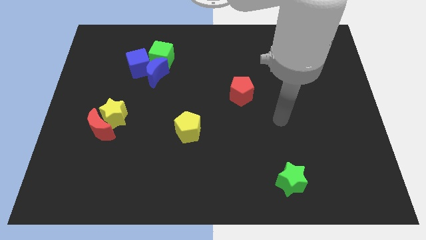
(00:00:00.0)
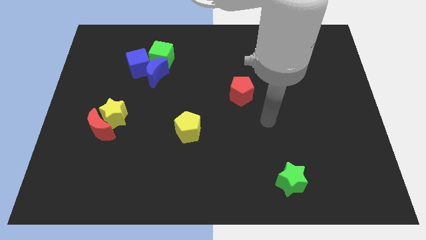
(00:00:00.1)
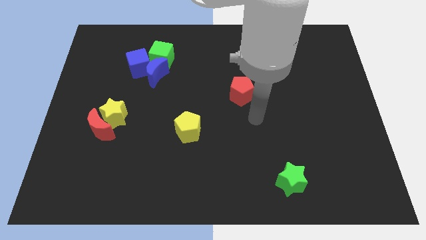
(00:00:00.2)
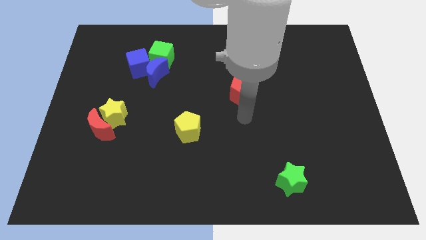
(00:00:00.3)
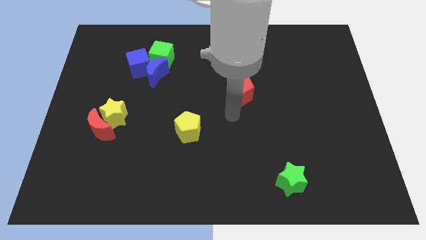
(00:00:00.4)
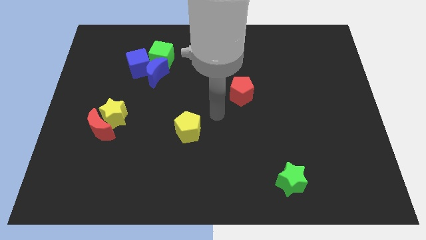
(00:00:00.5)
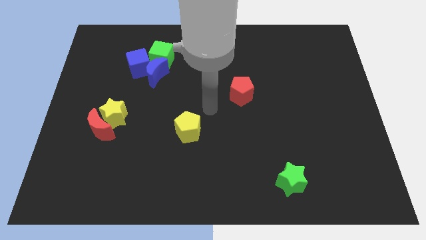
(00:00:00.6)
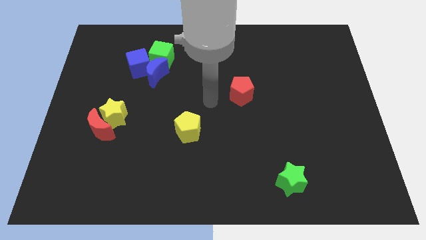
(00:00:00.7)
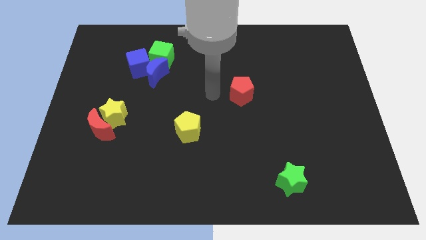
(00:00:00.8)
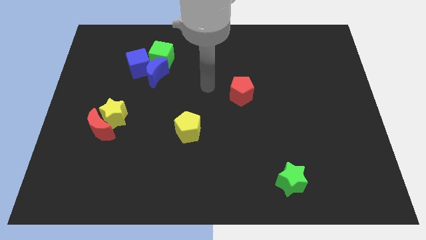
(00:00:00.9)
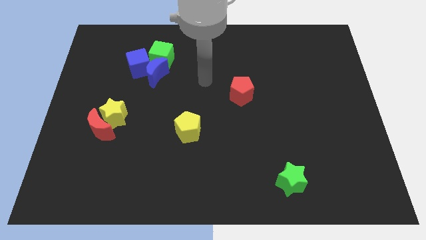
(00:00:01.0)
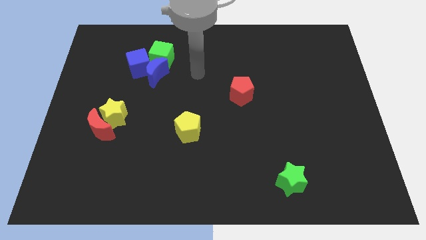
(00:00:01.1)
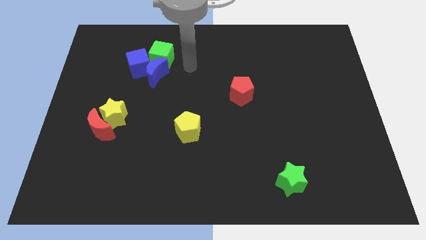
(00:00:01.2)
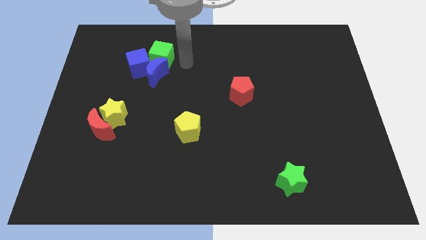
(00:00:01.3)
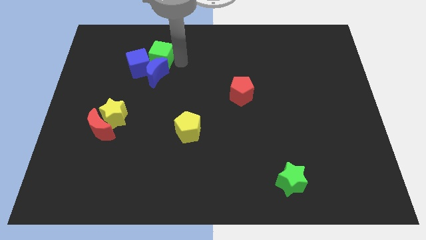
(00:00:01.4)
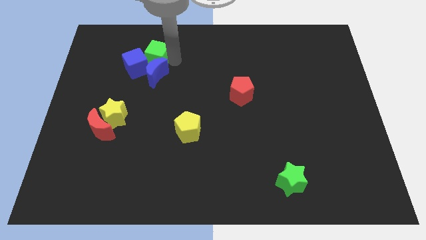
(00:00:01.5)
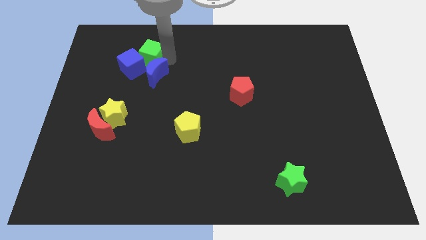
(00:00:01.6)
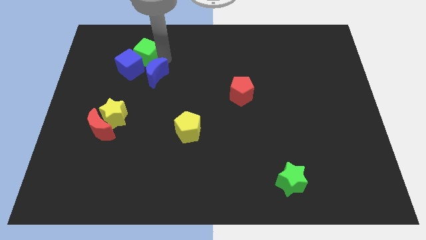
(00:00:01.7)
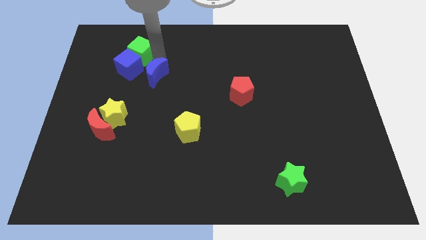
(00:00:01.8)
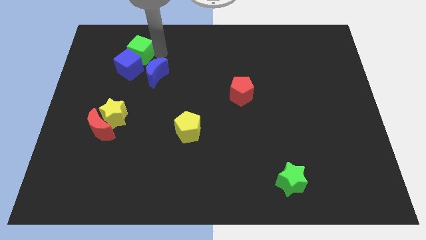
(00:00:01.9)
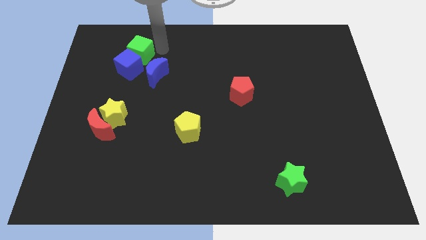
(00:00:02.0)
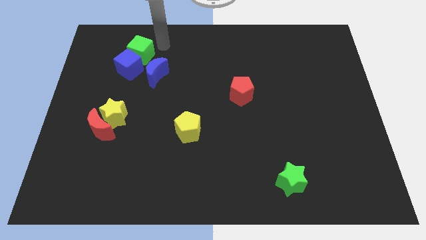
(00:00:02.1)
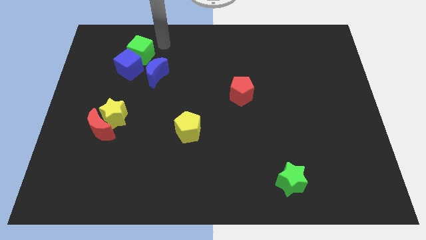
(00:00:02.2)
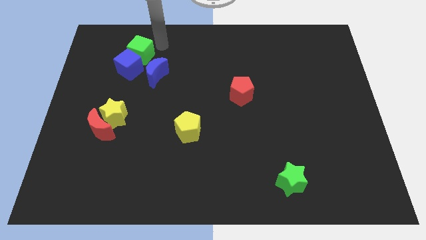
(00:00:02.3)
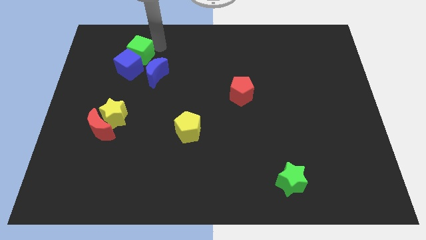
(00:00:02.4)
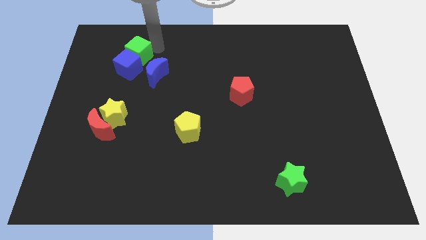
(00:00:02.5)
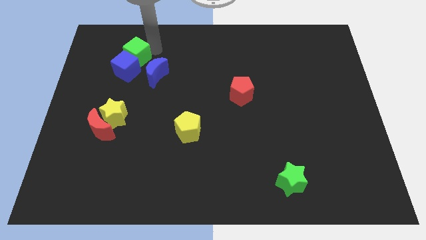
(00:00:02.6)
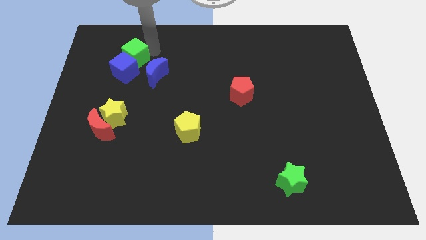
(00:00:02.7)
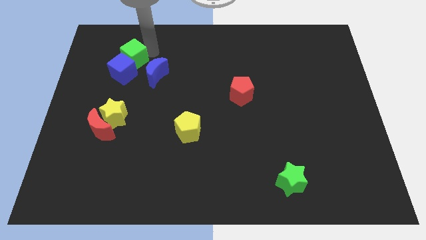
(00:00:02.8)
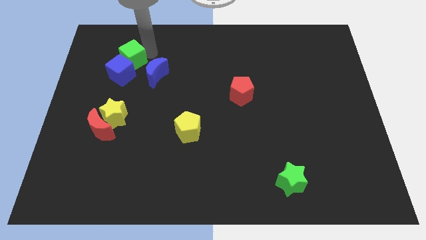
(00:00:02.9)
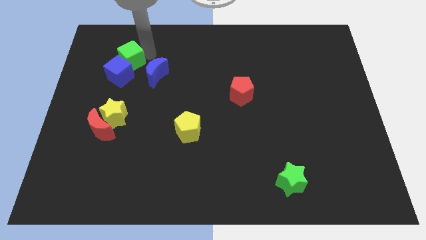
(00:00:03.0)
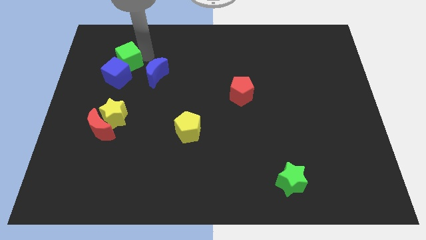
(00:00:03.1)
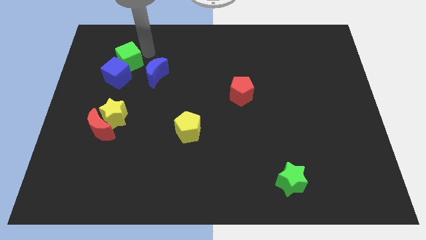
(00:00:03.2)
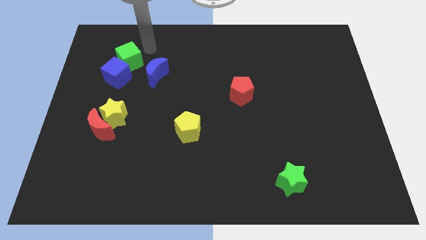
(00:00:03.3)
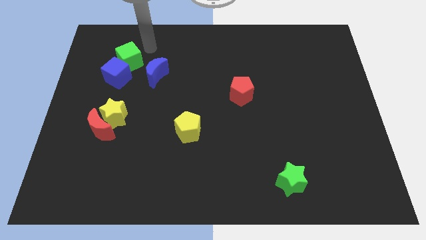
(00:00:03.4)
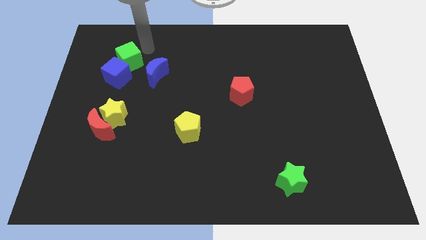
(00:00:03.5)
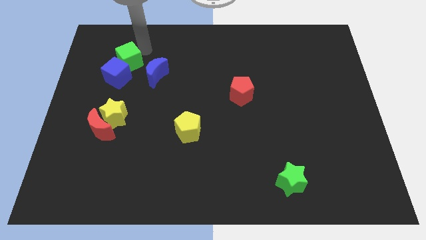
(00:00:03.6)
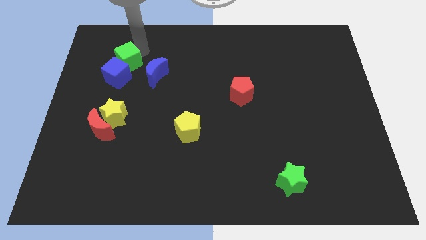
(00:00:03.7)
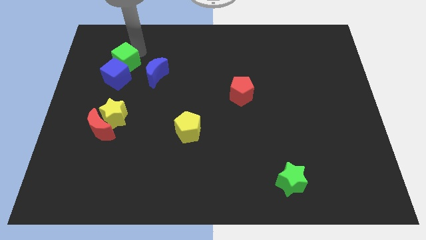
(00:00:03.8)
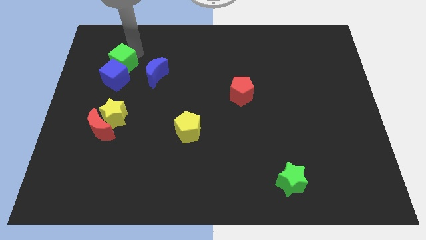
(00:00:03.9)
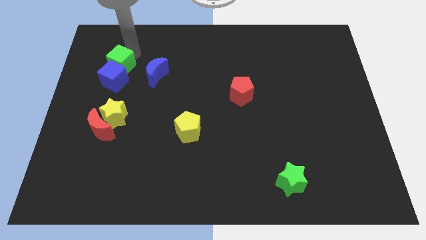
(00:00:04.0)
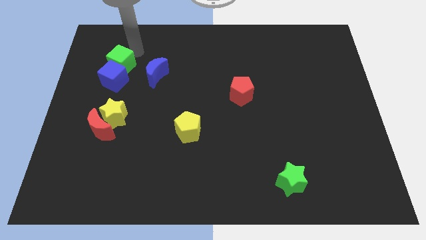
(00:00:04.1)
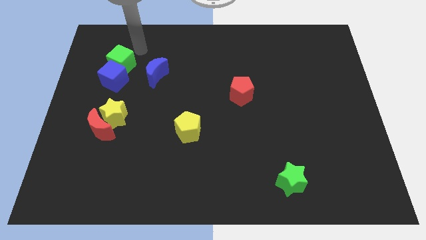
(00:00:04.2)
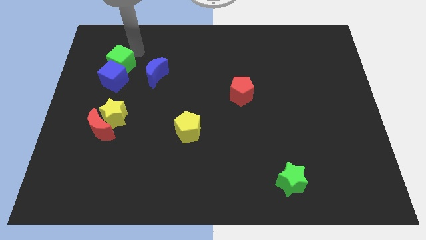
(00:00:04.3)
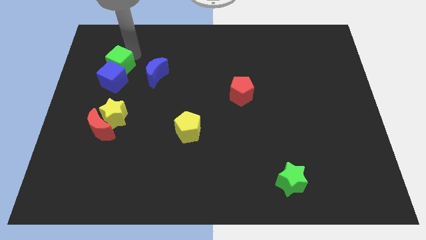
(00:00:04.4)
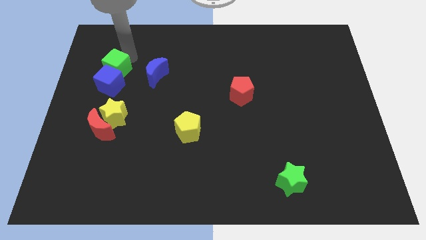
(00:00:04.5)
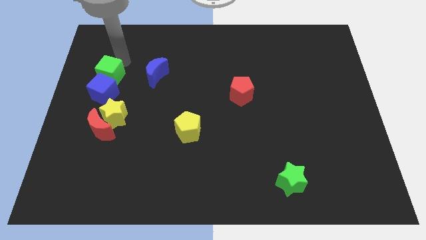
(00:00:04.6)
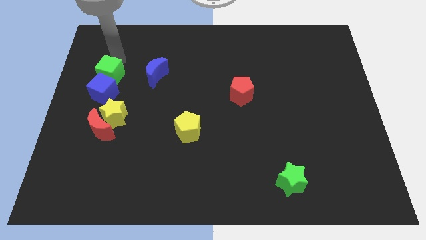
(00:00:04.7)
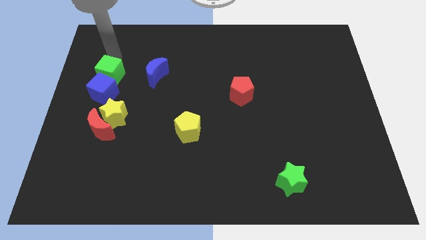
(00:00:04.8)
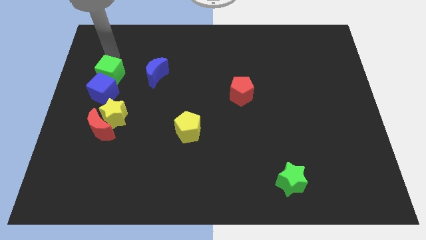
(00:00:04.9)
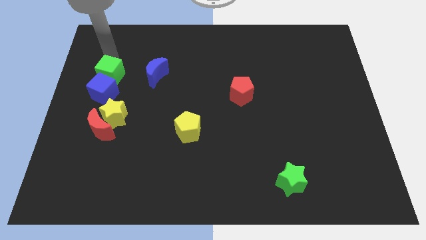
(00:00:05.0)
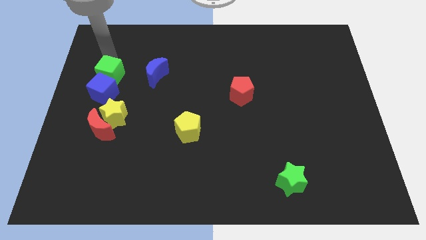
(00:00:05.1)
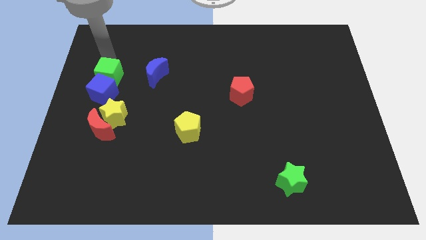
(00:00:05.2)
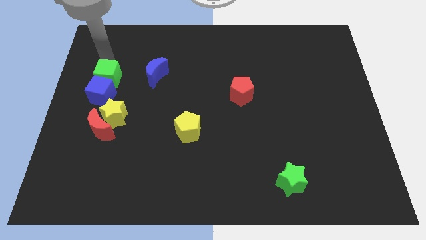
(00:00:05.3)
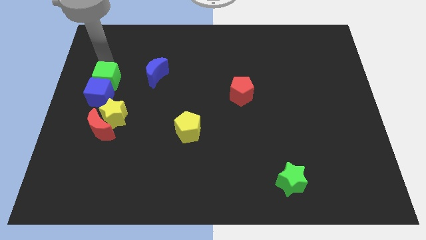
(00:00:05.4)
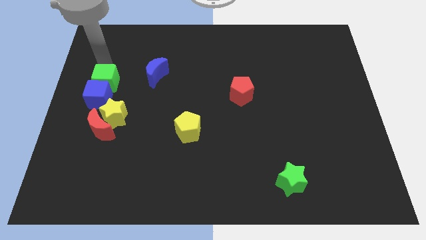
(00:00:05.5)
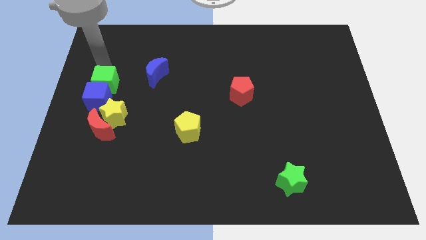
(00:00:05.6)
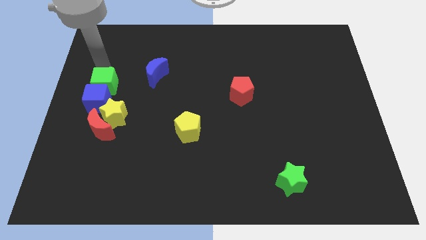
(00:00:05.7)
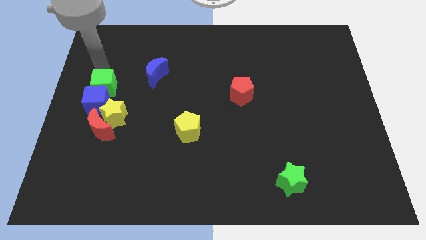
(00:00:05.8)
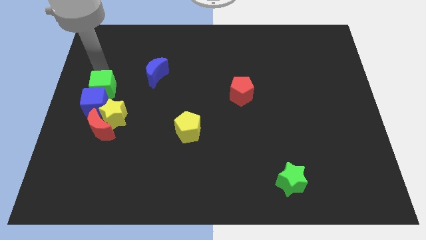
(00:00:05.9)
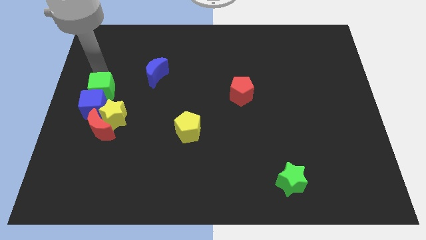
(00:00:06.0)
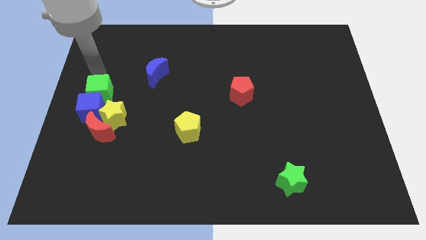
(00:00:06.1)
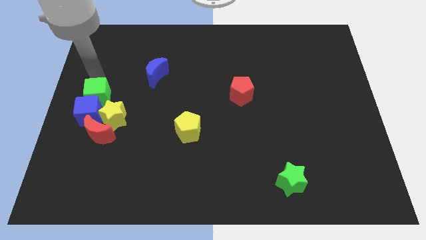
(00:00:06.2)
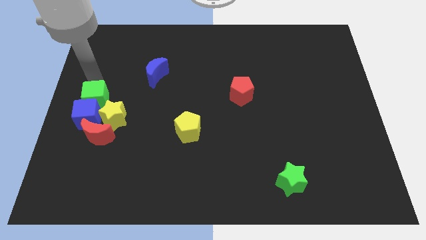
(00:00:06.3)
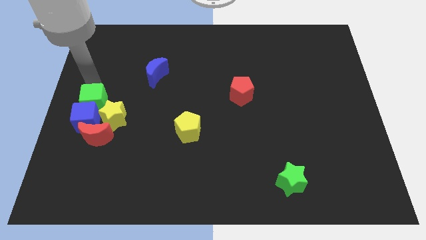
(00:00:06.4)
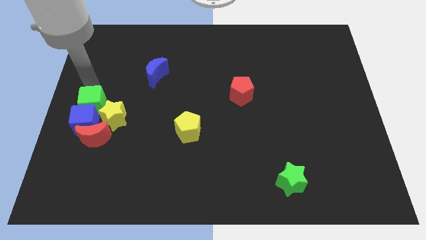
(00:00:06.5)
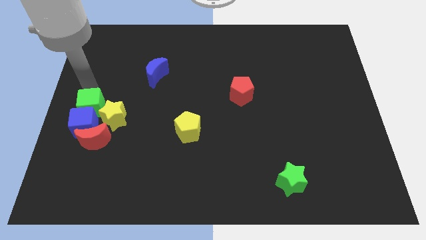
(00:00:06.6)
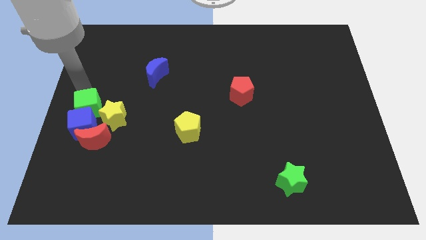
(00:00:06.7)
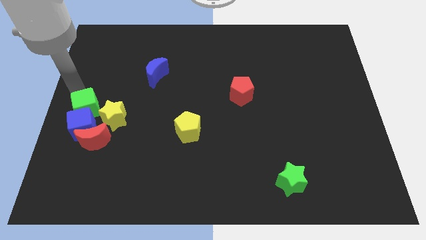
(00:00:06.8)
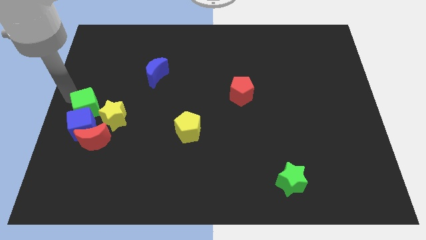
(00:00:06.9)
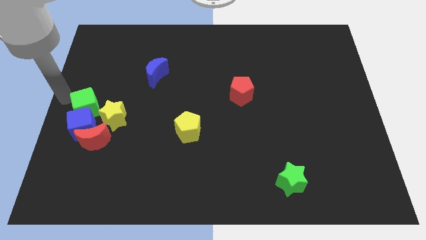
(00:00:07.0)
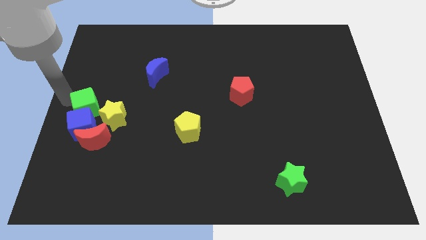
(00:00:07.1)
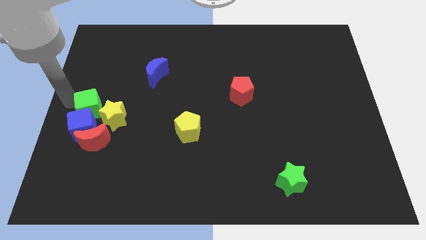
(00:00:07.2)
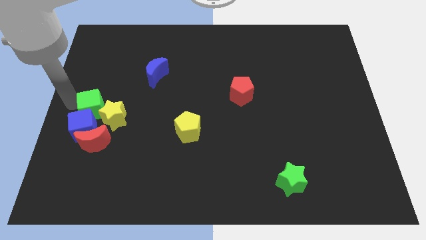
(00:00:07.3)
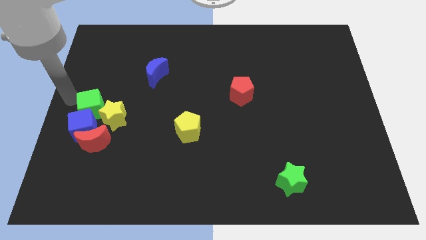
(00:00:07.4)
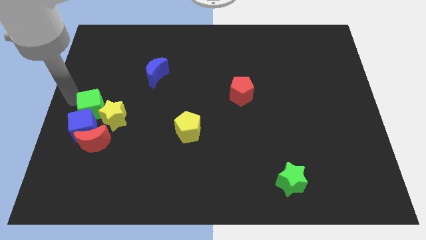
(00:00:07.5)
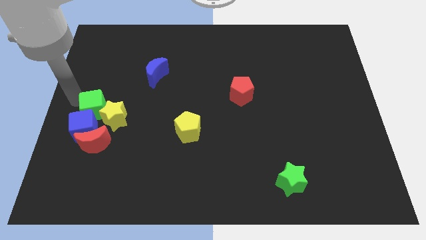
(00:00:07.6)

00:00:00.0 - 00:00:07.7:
slide the green cube towards the yellow star
